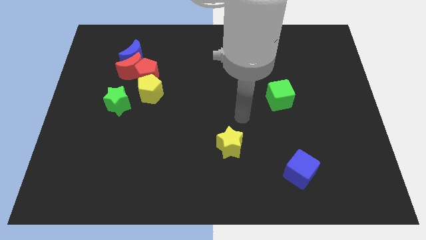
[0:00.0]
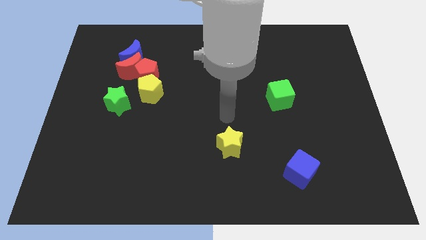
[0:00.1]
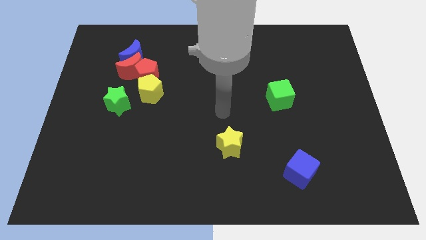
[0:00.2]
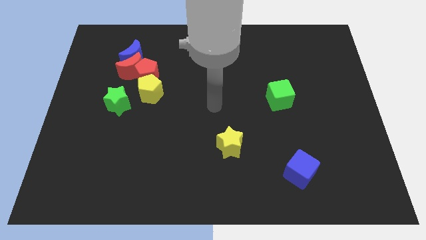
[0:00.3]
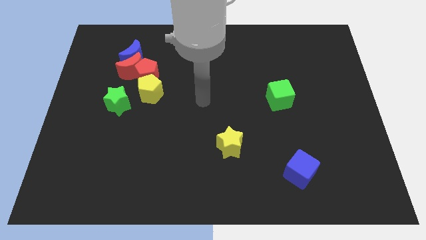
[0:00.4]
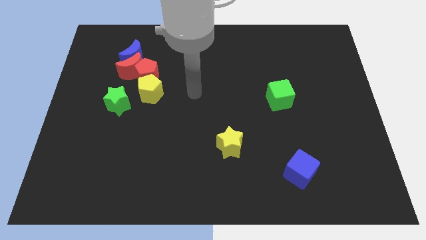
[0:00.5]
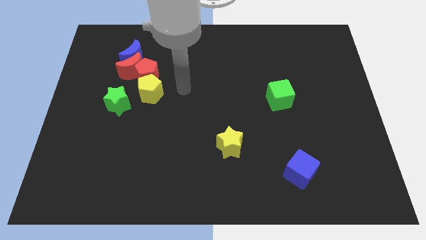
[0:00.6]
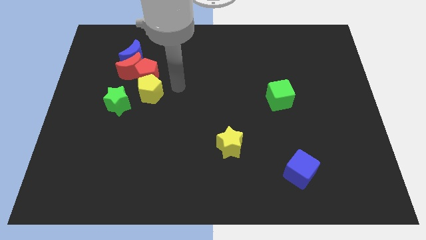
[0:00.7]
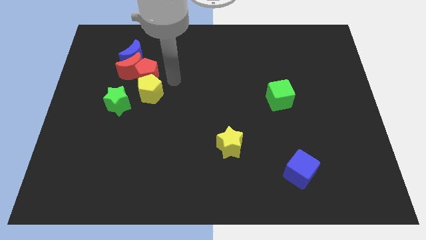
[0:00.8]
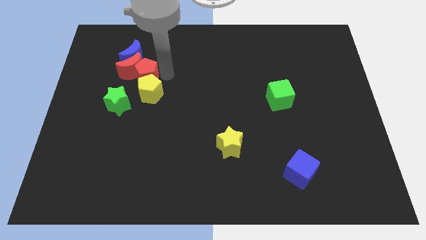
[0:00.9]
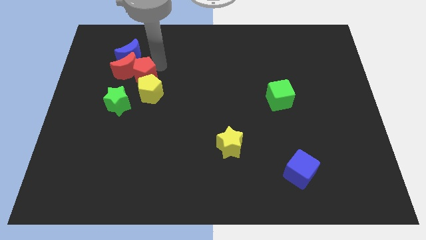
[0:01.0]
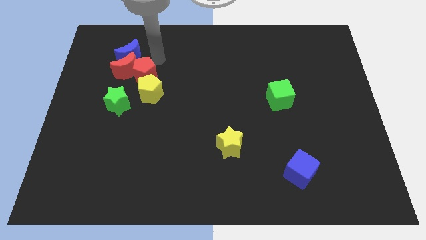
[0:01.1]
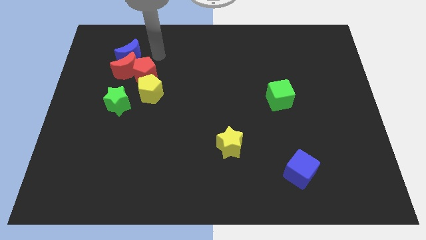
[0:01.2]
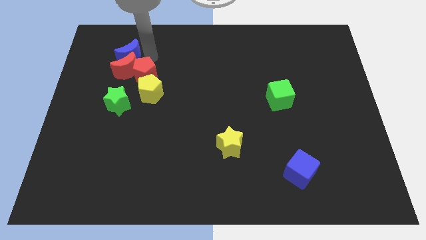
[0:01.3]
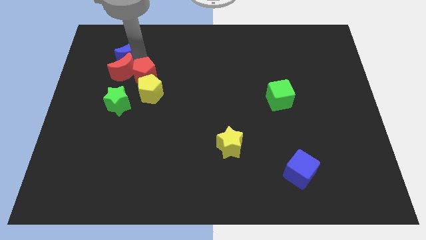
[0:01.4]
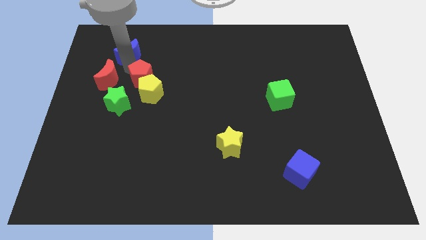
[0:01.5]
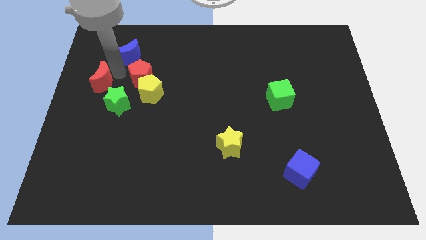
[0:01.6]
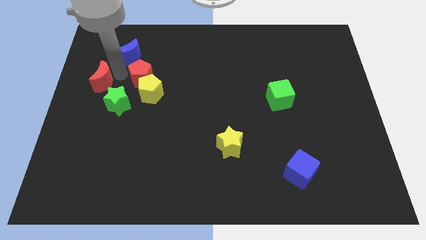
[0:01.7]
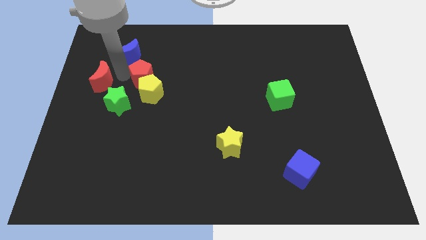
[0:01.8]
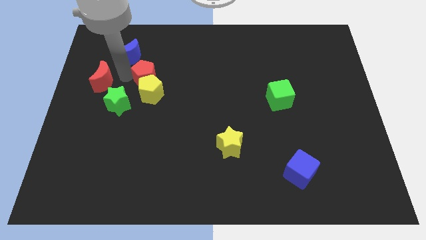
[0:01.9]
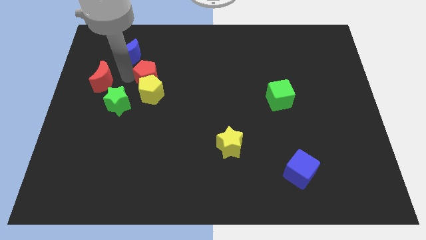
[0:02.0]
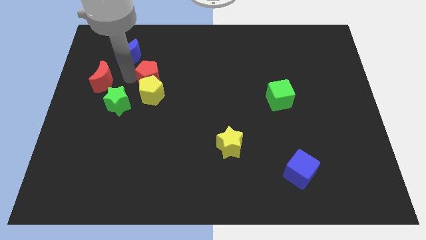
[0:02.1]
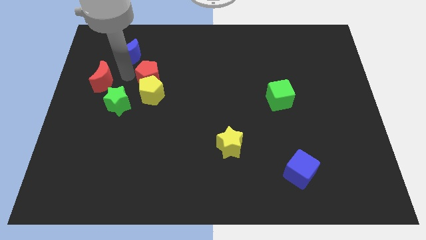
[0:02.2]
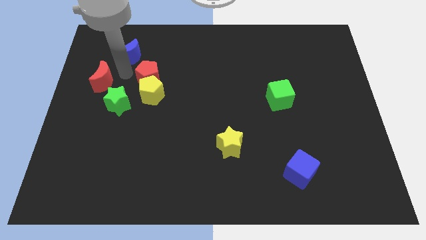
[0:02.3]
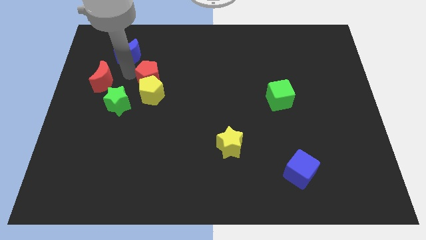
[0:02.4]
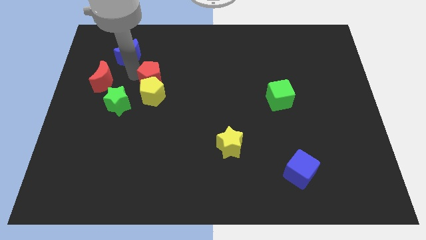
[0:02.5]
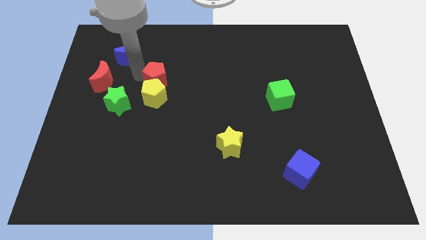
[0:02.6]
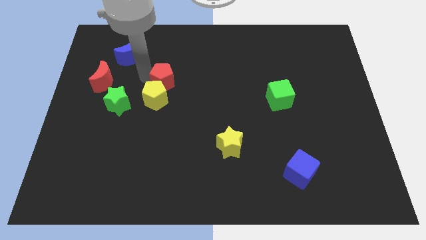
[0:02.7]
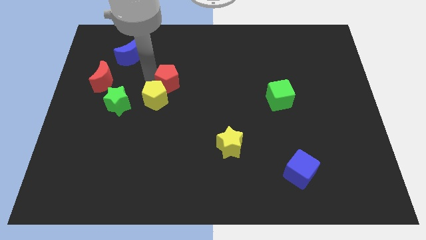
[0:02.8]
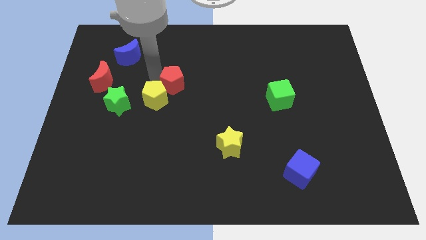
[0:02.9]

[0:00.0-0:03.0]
move the red pentagon away from the red moon, yellow pentagon, and blue moon

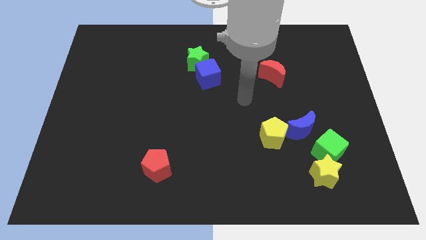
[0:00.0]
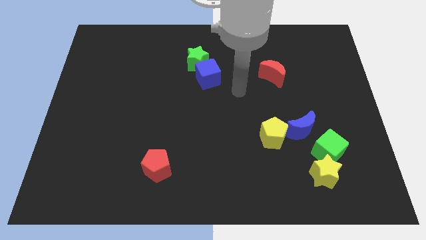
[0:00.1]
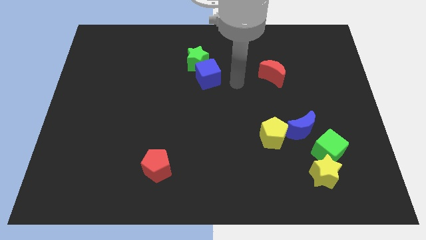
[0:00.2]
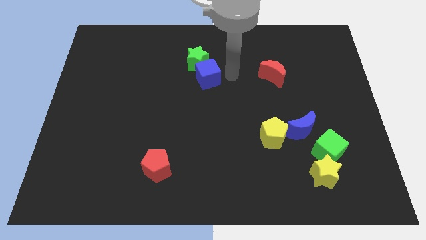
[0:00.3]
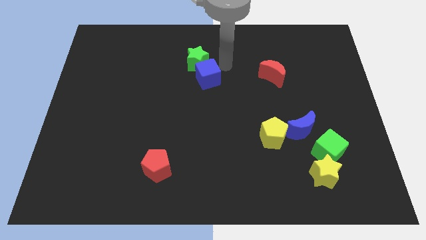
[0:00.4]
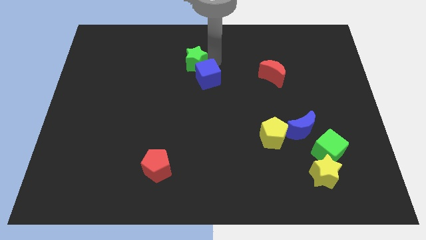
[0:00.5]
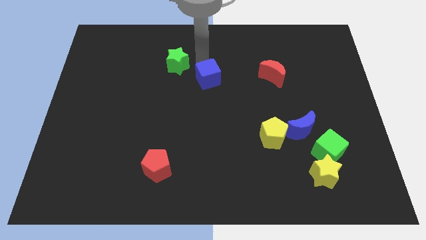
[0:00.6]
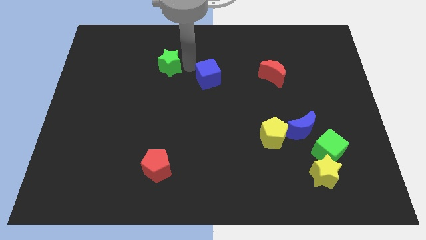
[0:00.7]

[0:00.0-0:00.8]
move the blue cube away from the green star

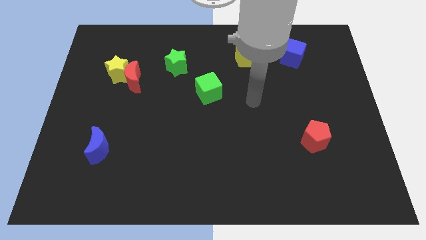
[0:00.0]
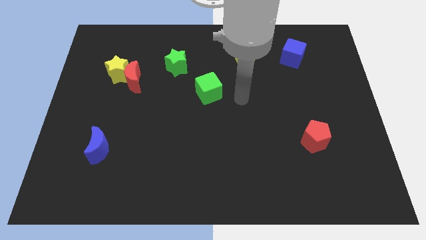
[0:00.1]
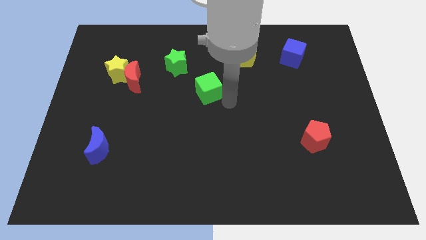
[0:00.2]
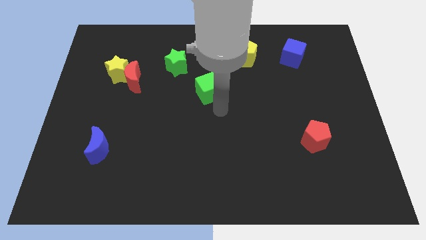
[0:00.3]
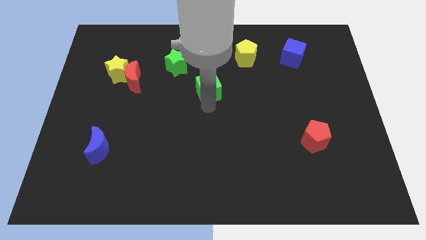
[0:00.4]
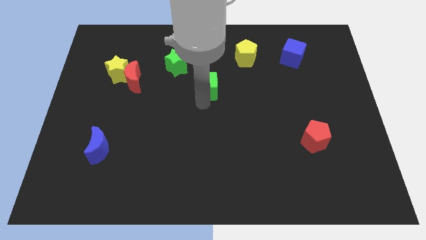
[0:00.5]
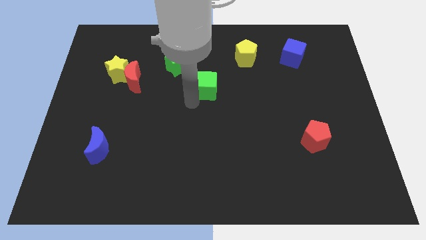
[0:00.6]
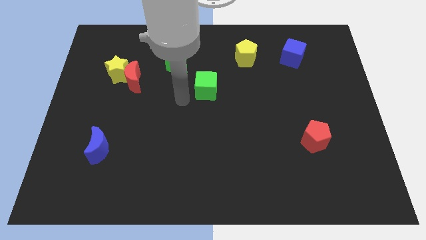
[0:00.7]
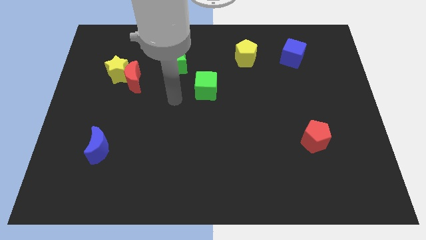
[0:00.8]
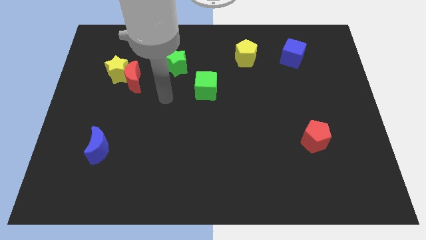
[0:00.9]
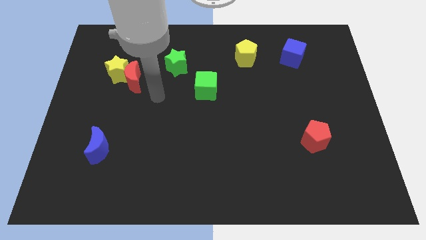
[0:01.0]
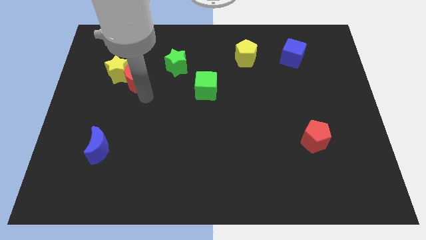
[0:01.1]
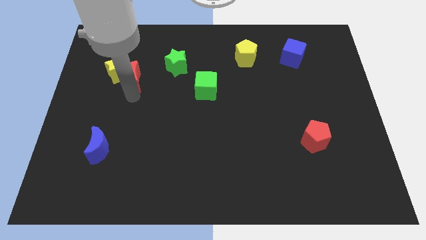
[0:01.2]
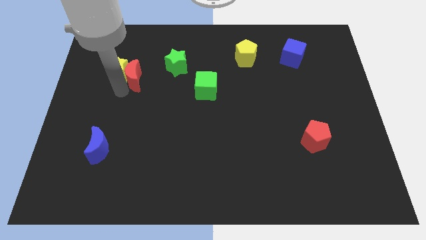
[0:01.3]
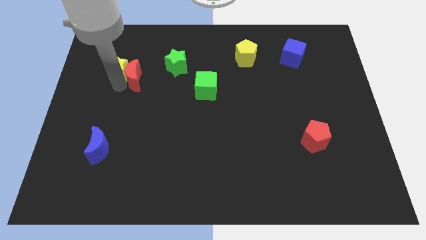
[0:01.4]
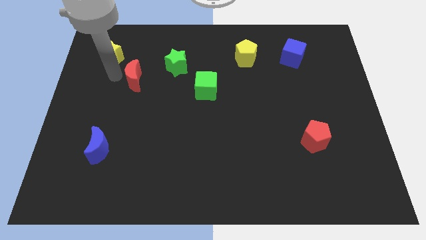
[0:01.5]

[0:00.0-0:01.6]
pull the red moon apart from the yellow star

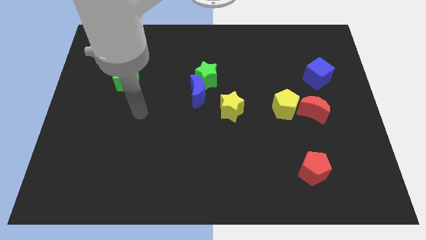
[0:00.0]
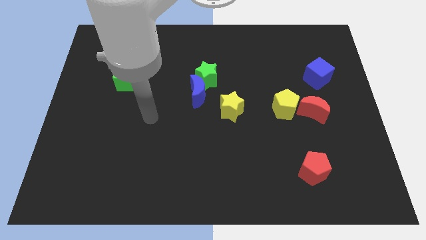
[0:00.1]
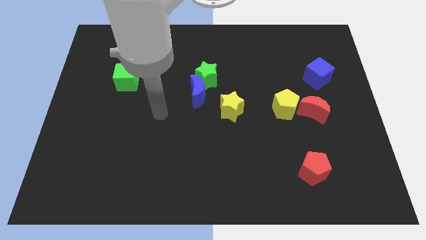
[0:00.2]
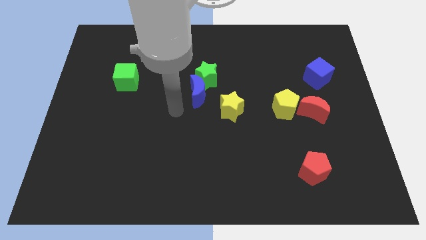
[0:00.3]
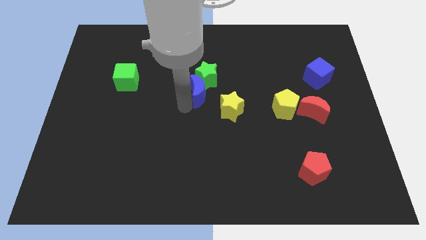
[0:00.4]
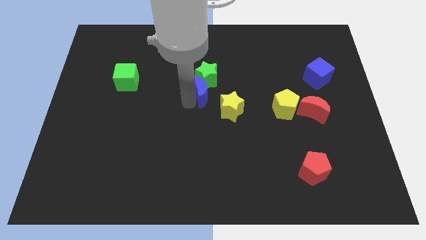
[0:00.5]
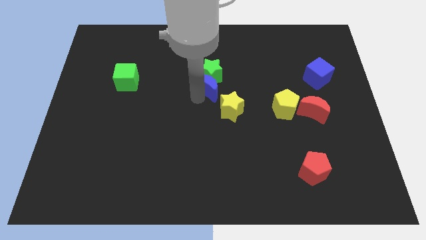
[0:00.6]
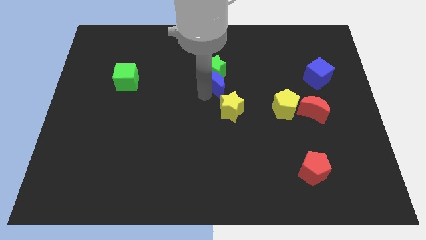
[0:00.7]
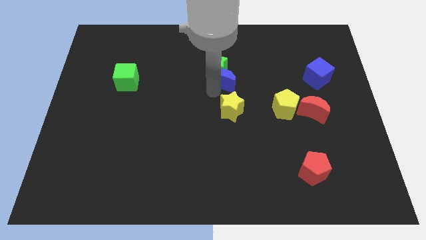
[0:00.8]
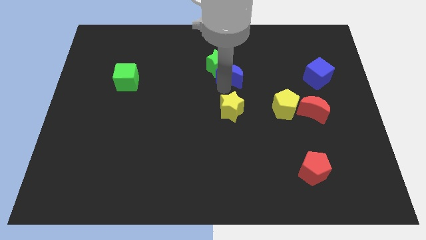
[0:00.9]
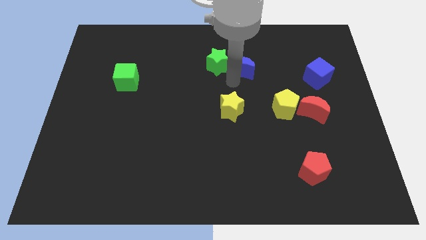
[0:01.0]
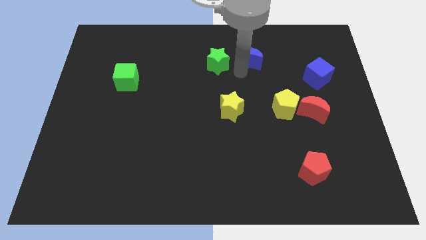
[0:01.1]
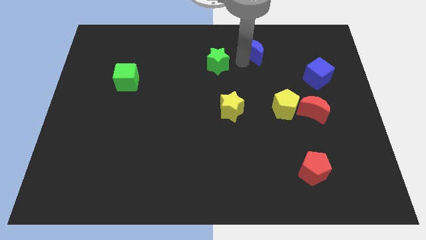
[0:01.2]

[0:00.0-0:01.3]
pull the green star apart from the blue moon

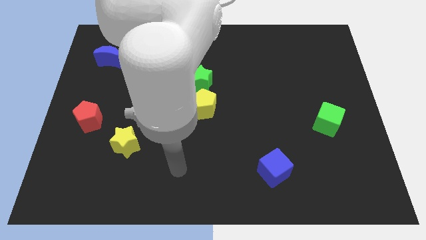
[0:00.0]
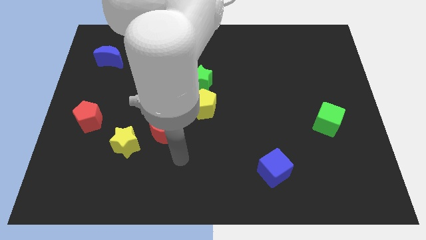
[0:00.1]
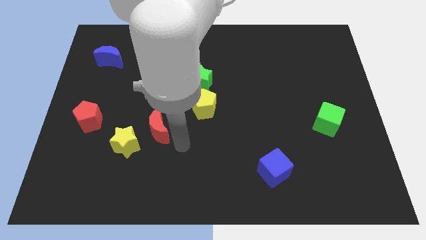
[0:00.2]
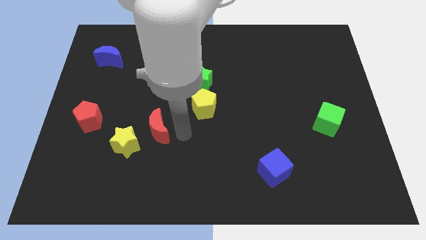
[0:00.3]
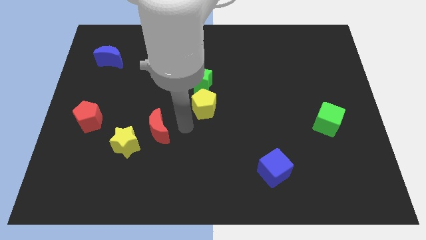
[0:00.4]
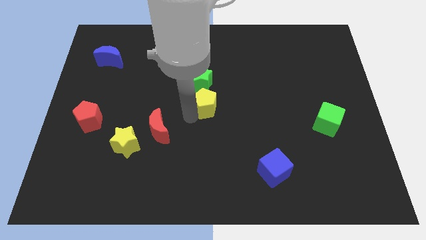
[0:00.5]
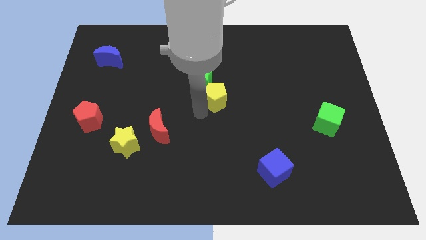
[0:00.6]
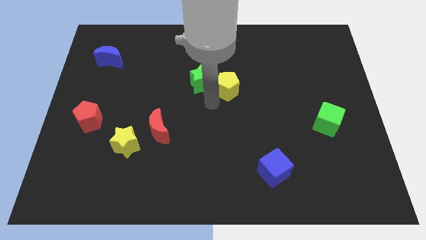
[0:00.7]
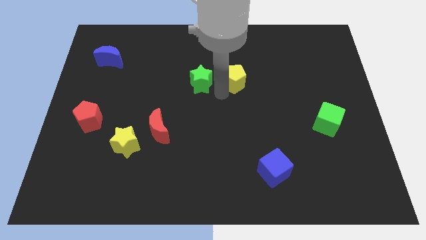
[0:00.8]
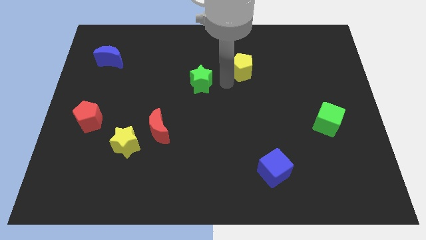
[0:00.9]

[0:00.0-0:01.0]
separate the green star from the yellow pentagon

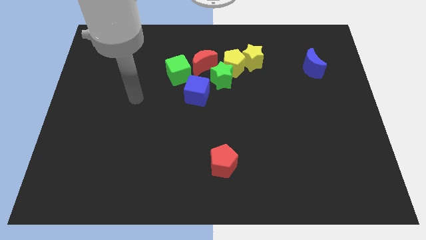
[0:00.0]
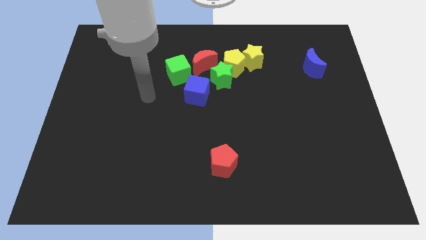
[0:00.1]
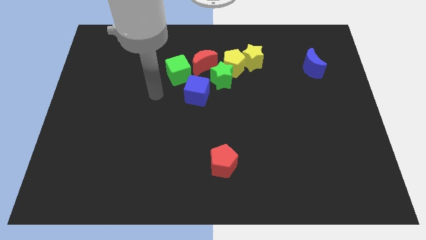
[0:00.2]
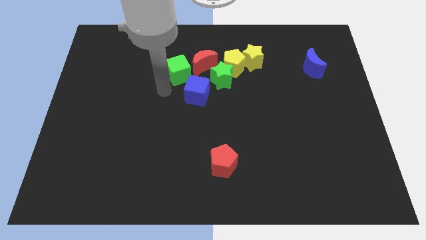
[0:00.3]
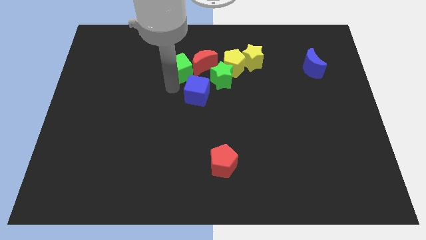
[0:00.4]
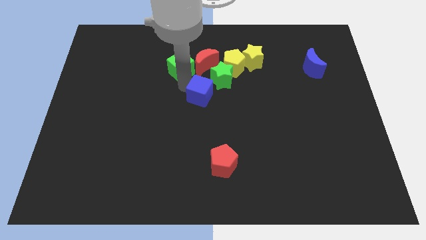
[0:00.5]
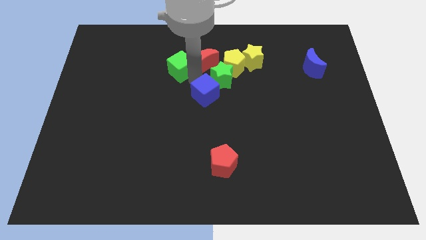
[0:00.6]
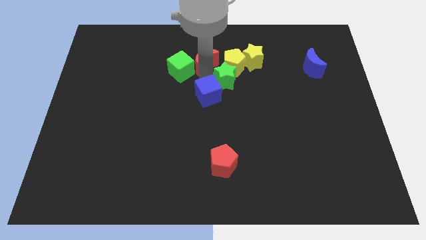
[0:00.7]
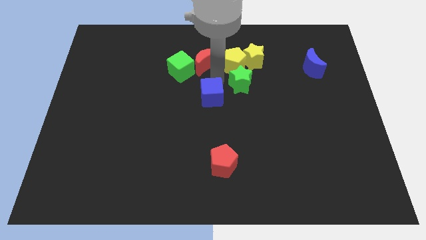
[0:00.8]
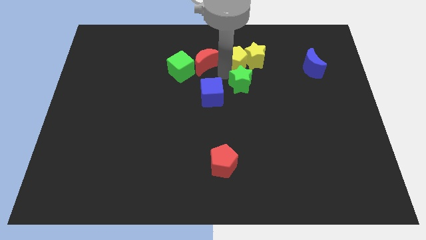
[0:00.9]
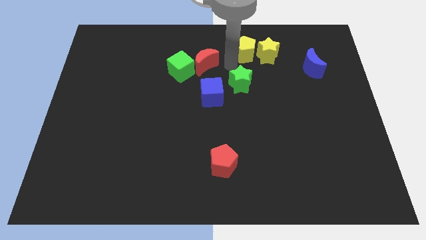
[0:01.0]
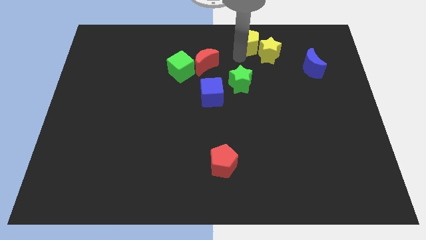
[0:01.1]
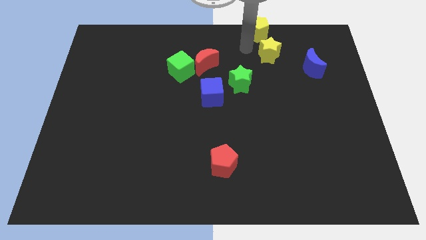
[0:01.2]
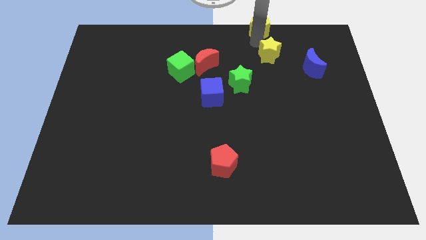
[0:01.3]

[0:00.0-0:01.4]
pull the yellow star apart from the yellow pentagon
